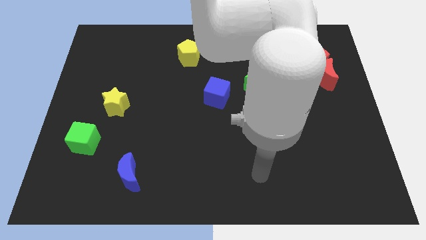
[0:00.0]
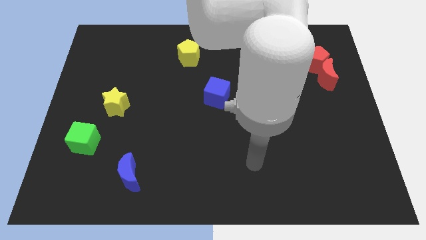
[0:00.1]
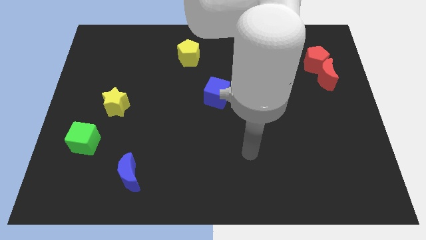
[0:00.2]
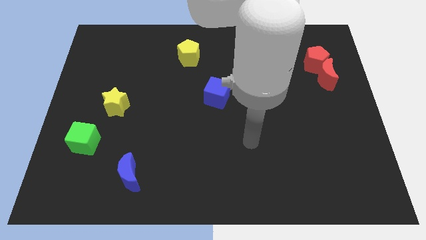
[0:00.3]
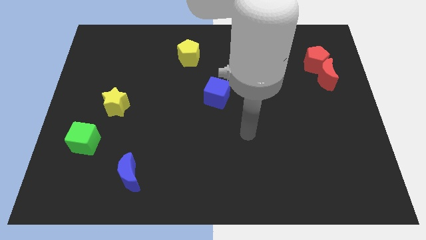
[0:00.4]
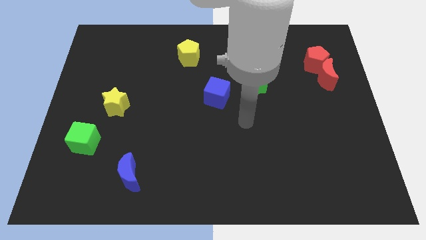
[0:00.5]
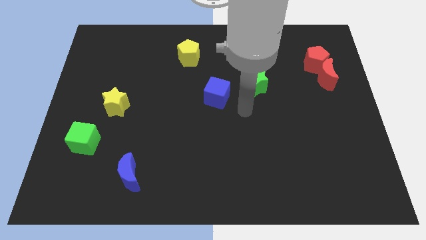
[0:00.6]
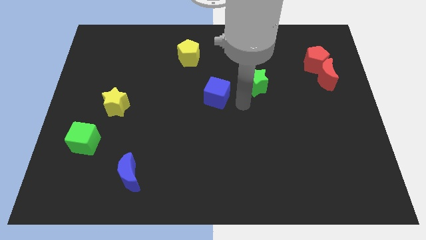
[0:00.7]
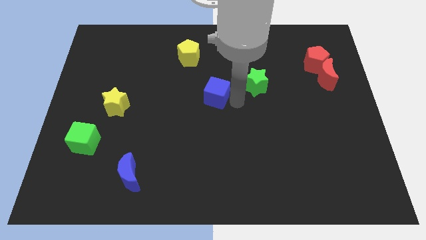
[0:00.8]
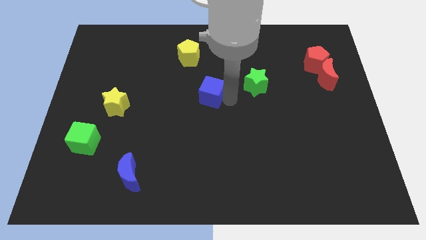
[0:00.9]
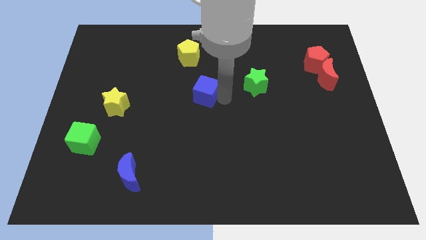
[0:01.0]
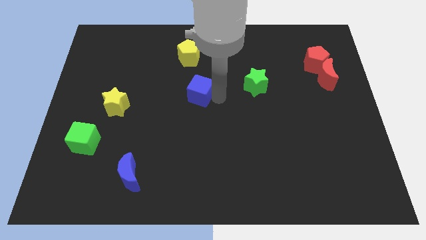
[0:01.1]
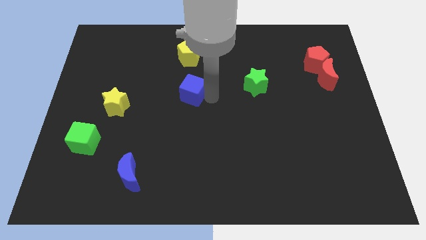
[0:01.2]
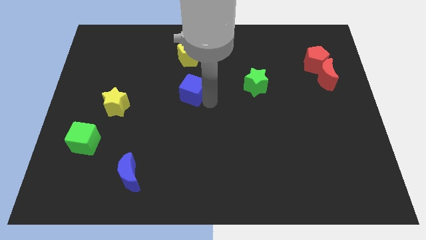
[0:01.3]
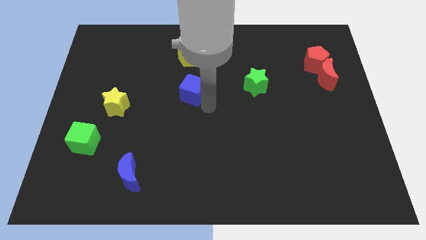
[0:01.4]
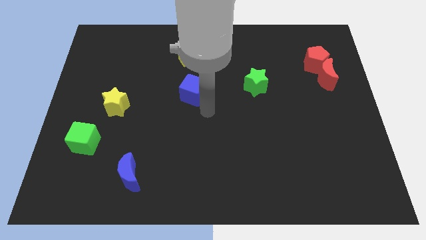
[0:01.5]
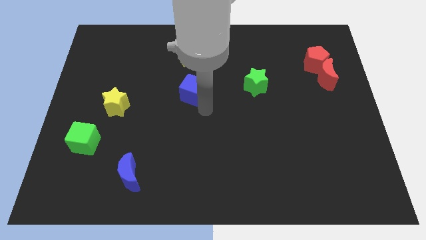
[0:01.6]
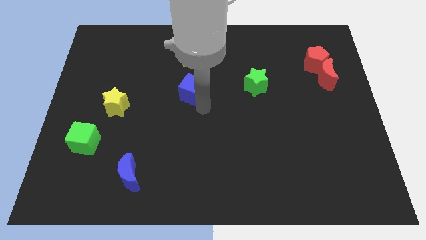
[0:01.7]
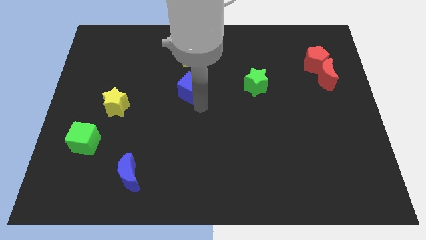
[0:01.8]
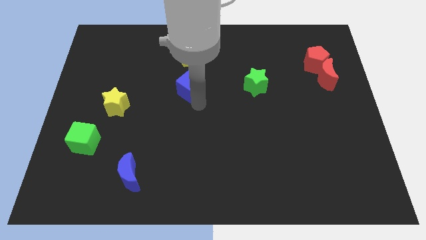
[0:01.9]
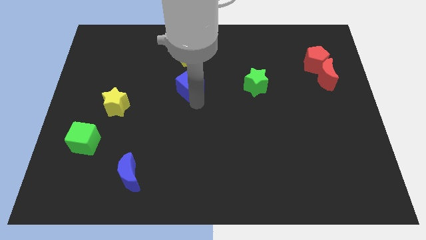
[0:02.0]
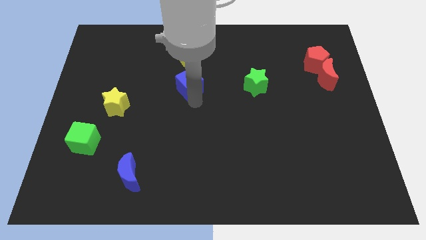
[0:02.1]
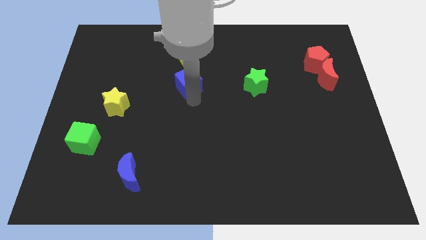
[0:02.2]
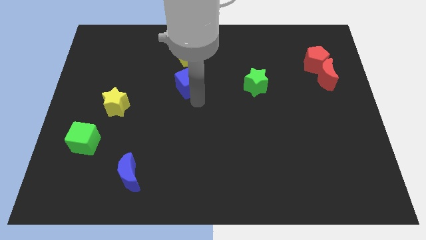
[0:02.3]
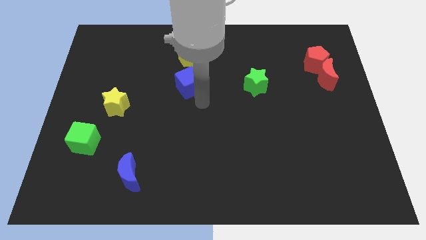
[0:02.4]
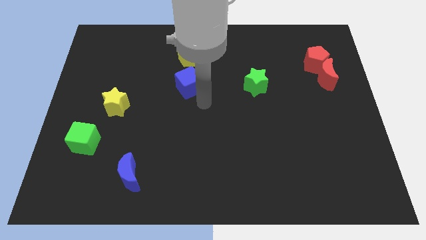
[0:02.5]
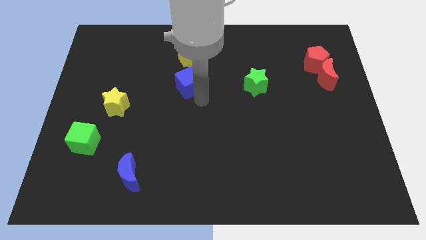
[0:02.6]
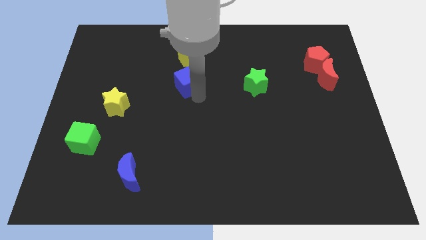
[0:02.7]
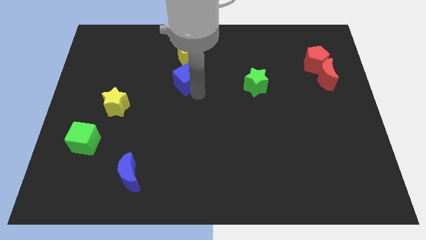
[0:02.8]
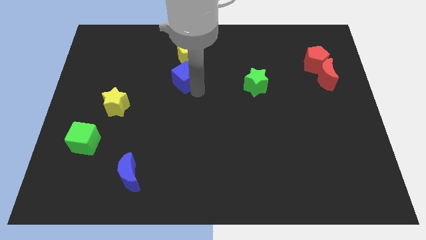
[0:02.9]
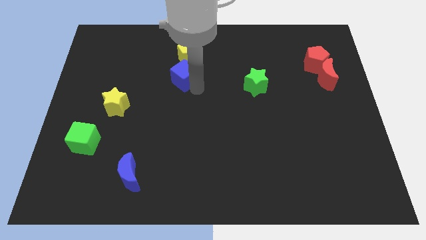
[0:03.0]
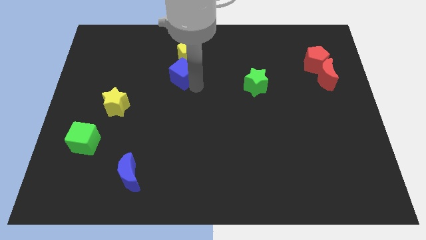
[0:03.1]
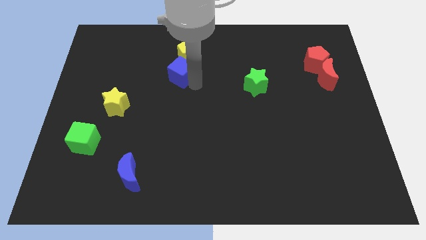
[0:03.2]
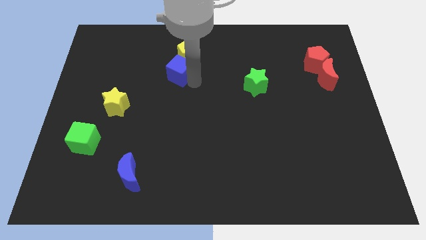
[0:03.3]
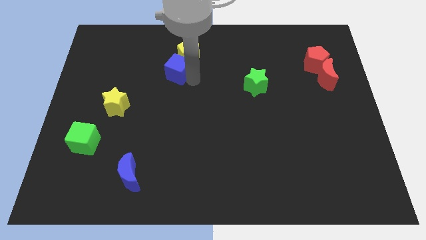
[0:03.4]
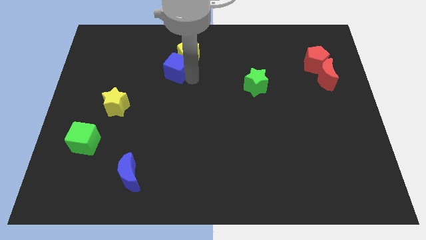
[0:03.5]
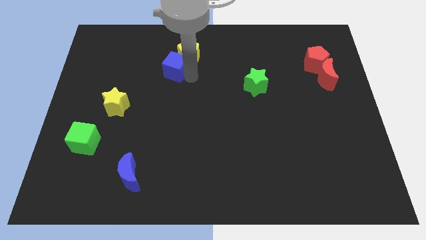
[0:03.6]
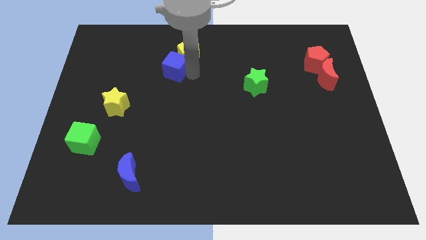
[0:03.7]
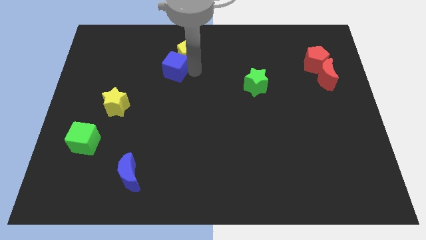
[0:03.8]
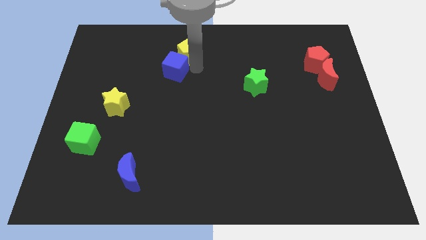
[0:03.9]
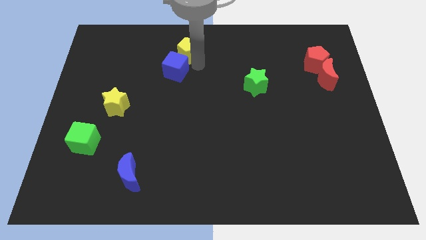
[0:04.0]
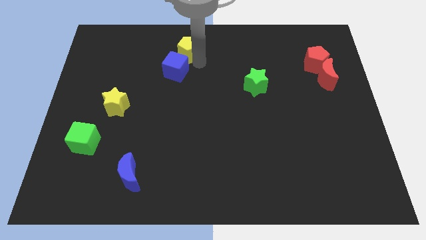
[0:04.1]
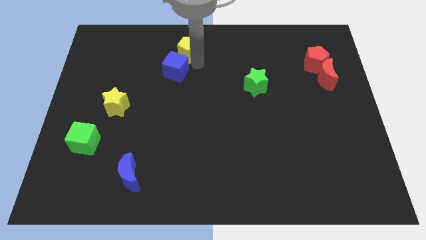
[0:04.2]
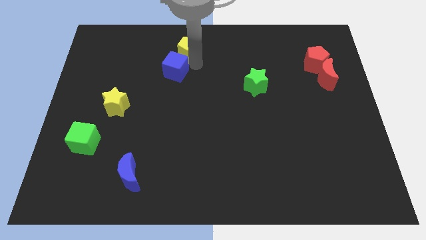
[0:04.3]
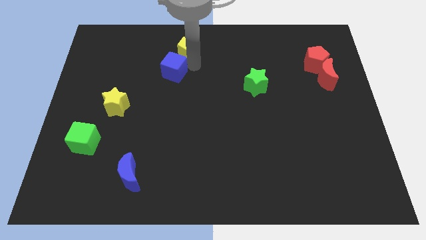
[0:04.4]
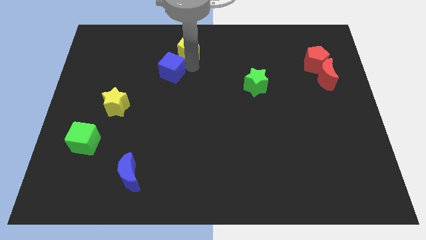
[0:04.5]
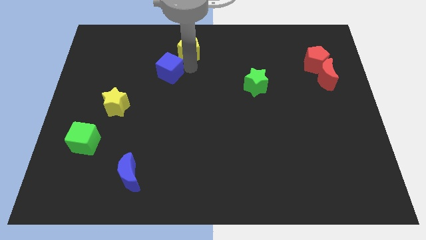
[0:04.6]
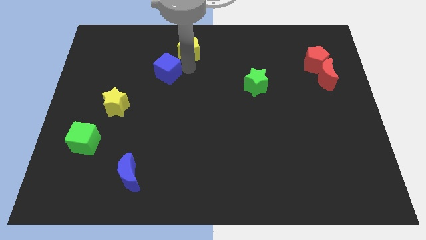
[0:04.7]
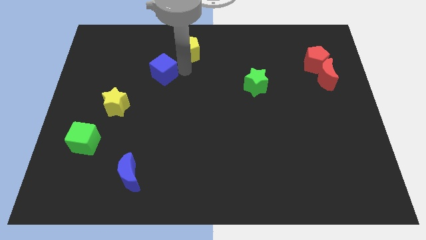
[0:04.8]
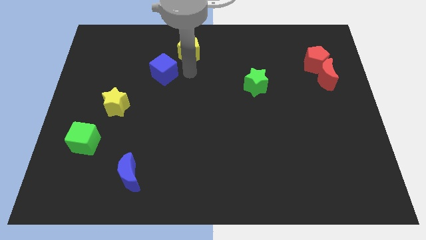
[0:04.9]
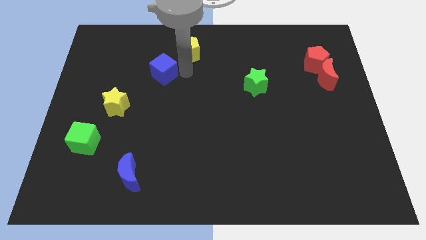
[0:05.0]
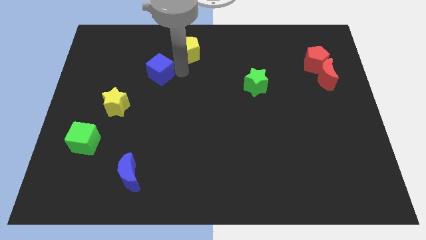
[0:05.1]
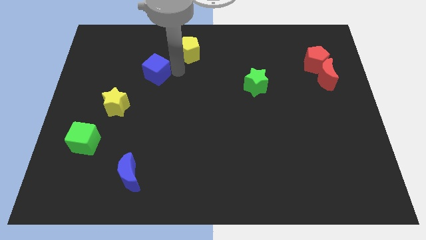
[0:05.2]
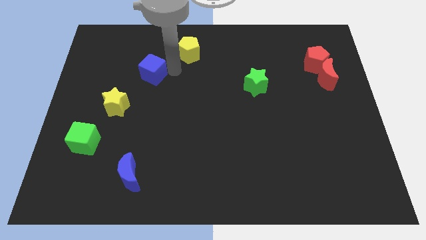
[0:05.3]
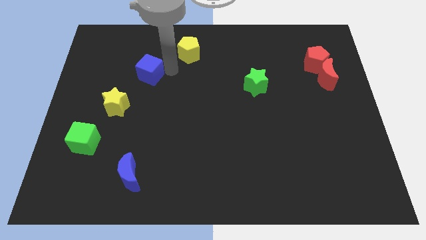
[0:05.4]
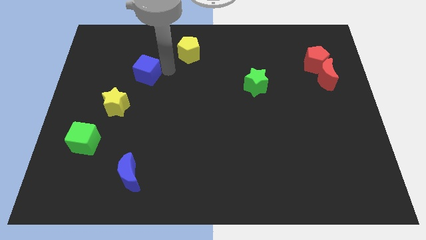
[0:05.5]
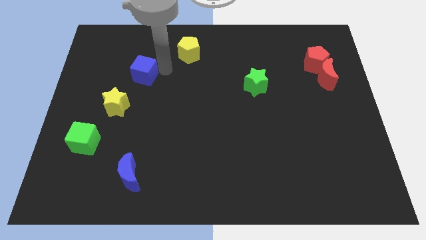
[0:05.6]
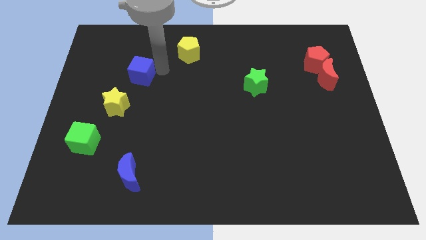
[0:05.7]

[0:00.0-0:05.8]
put the blue cube to the top side of the yellow star

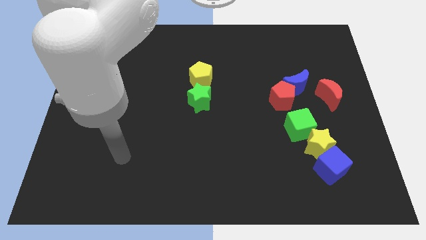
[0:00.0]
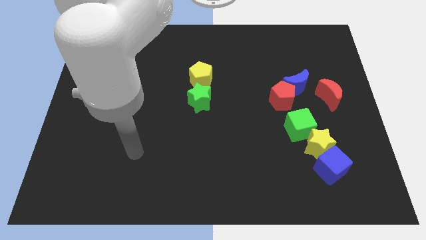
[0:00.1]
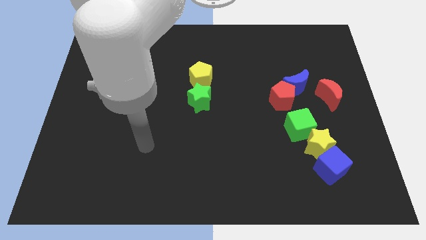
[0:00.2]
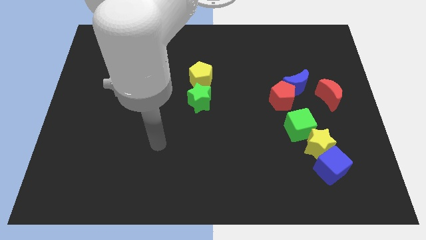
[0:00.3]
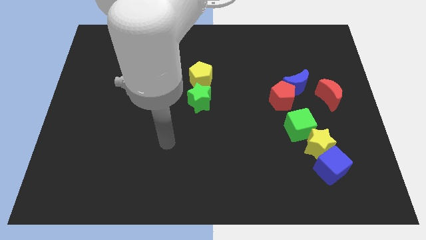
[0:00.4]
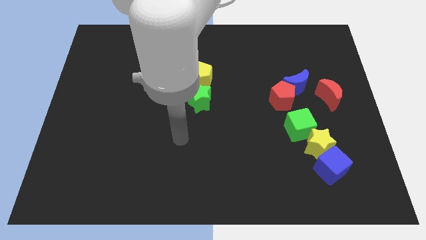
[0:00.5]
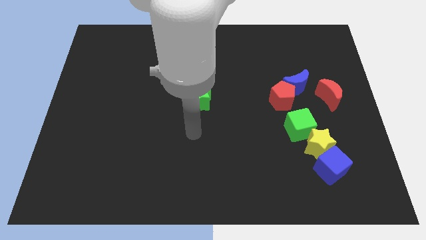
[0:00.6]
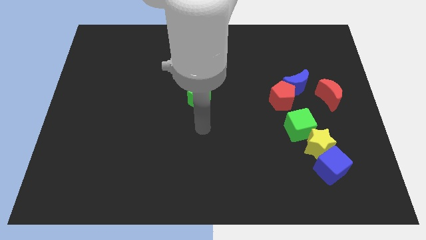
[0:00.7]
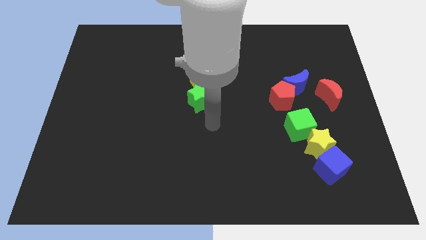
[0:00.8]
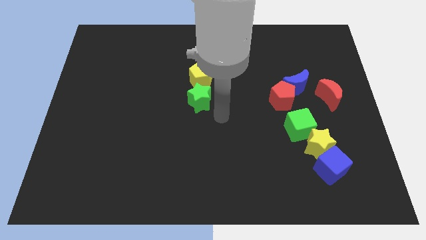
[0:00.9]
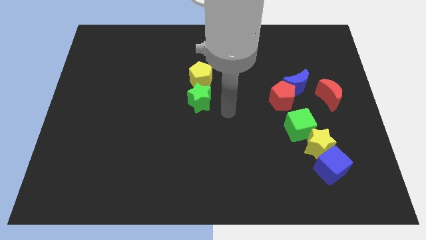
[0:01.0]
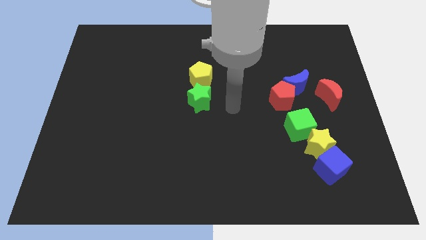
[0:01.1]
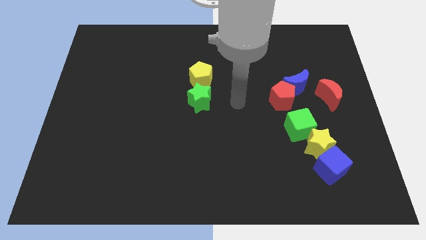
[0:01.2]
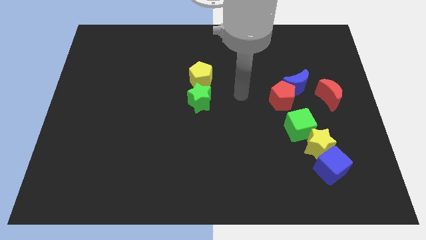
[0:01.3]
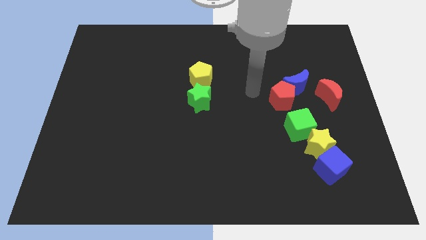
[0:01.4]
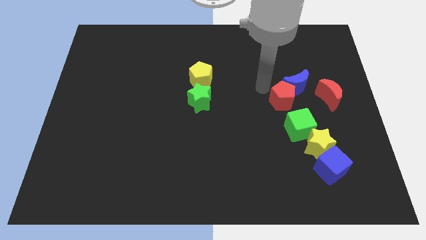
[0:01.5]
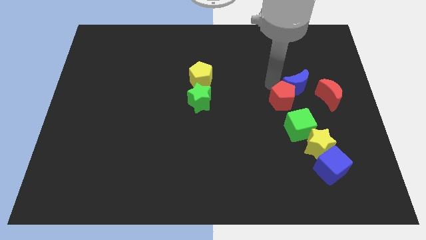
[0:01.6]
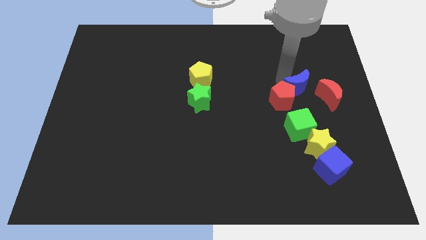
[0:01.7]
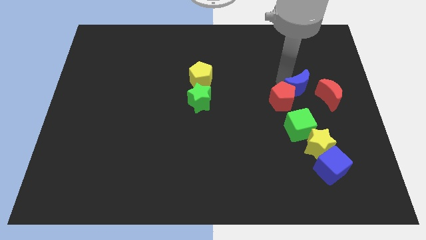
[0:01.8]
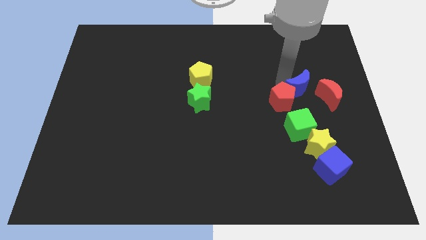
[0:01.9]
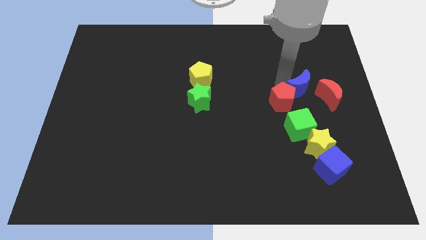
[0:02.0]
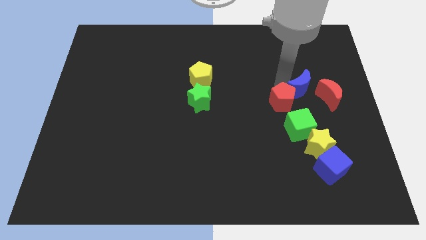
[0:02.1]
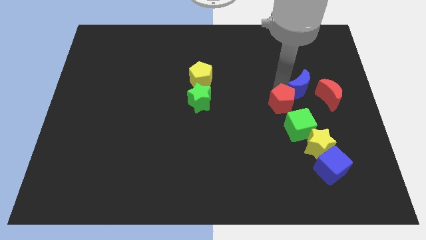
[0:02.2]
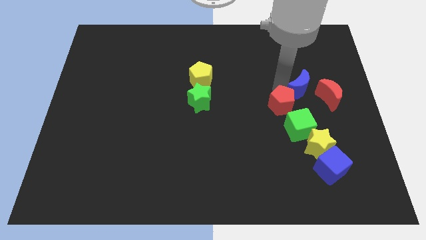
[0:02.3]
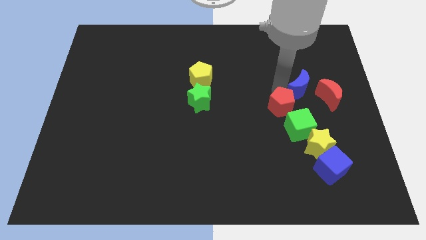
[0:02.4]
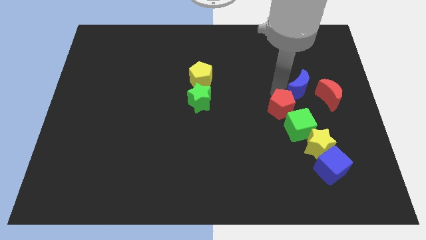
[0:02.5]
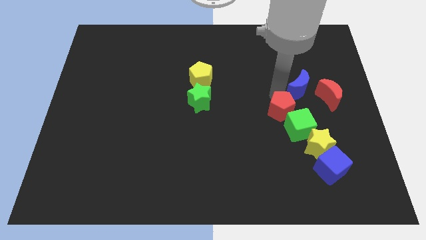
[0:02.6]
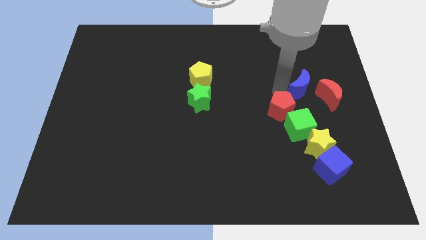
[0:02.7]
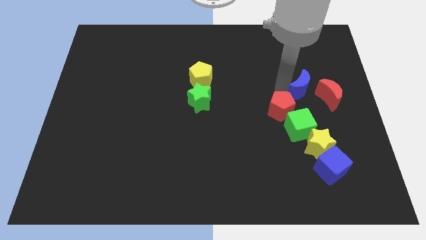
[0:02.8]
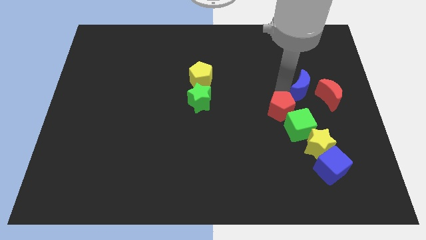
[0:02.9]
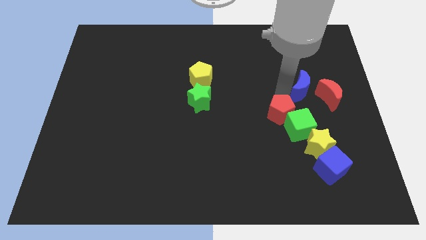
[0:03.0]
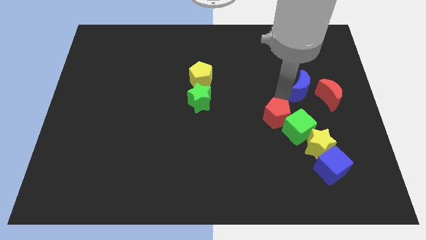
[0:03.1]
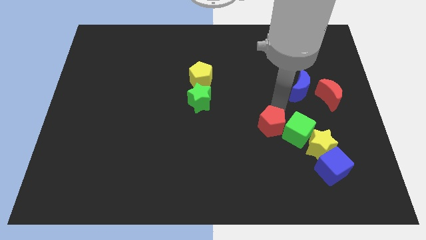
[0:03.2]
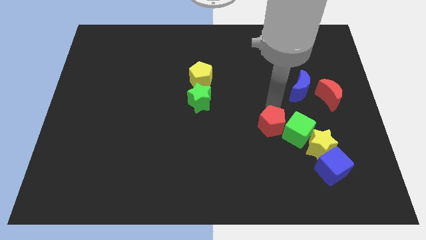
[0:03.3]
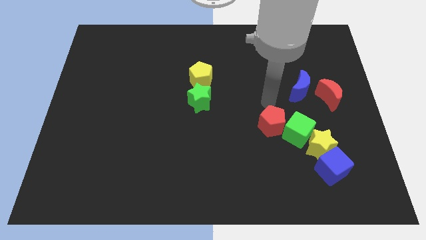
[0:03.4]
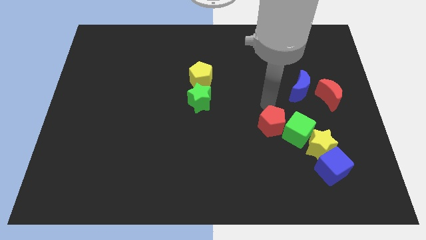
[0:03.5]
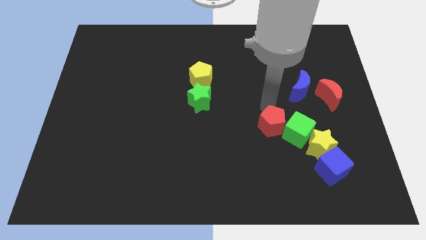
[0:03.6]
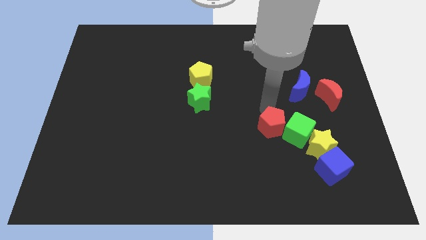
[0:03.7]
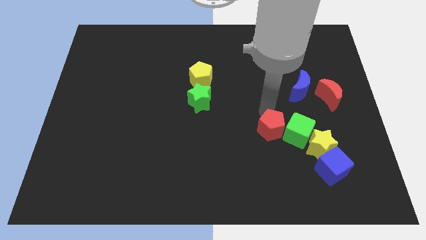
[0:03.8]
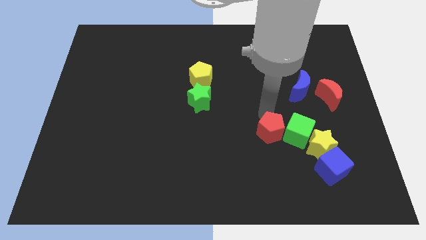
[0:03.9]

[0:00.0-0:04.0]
put the red pentagon diagonally down and to the left of the green cube
